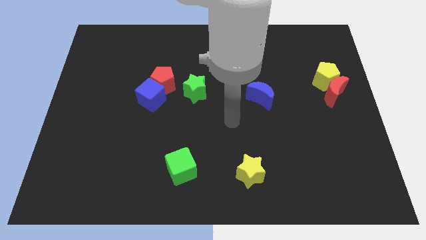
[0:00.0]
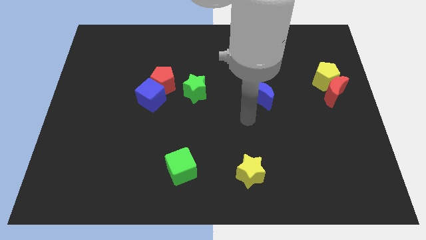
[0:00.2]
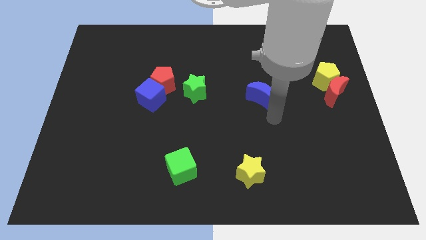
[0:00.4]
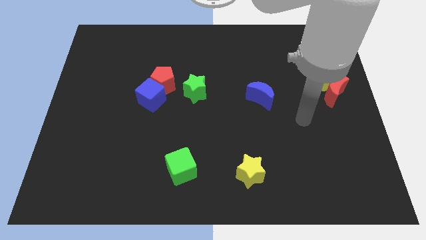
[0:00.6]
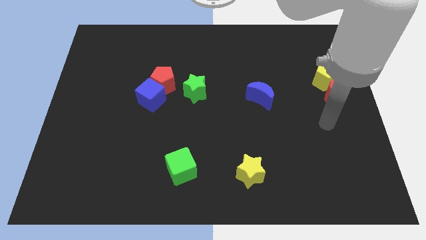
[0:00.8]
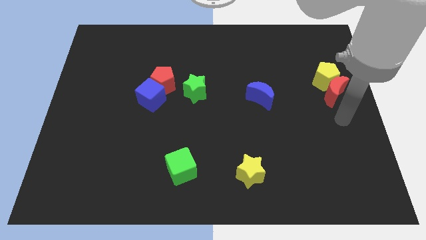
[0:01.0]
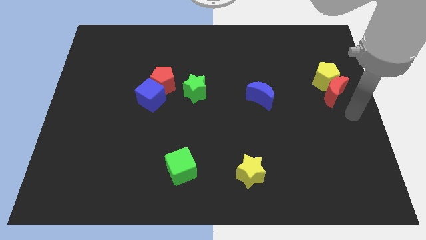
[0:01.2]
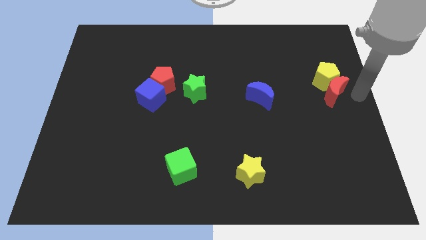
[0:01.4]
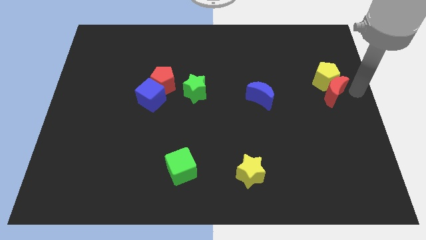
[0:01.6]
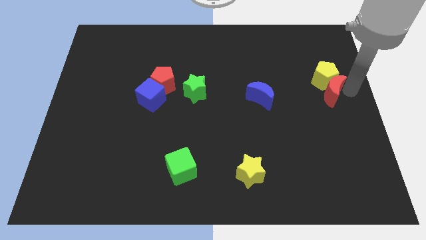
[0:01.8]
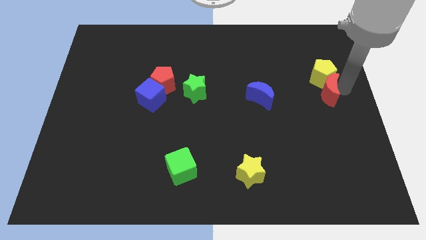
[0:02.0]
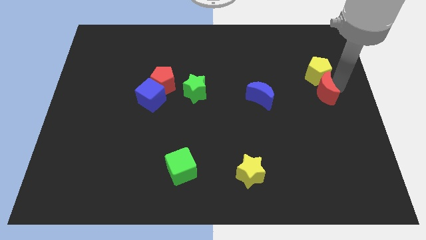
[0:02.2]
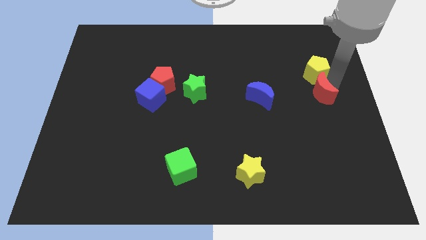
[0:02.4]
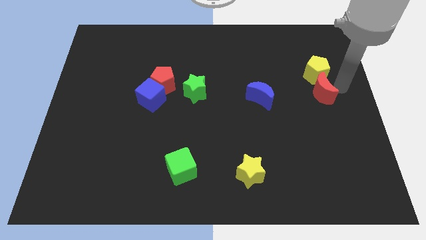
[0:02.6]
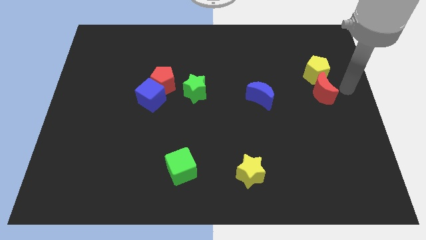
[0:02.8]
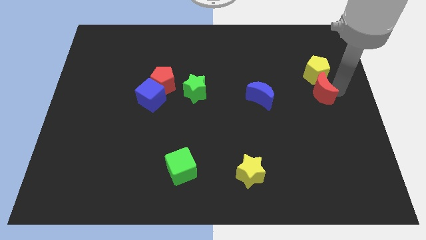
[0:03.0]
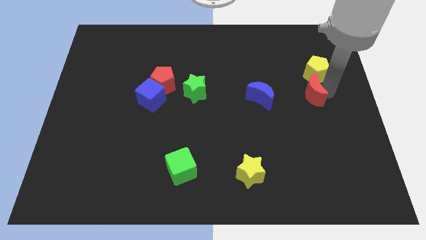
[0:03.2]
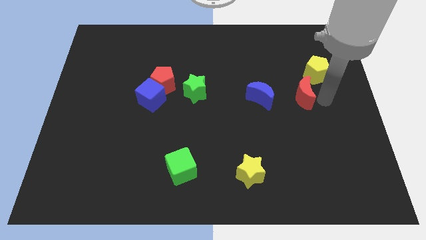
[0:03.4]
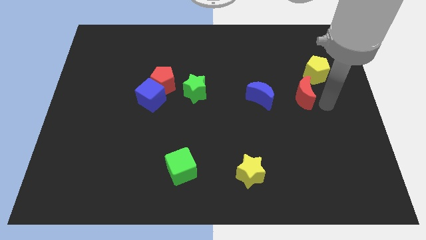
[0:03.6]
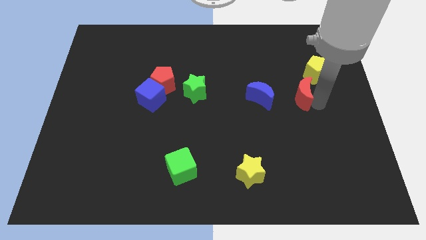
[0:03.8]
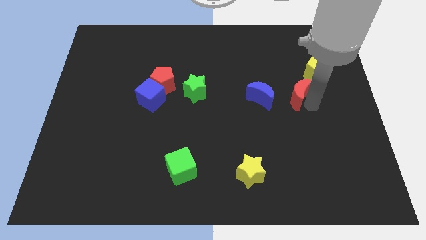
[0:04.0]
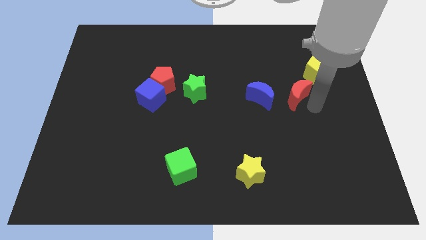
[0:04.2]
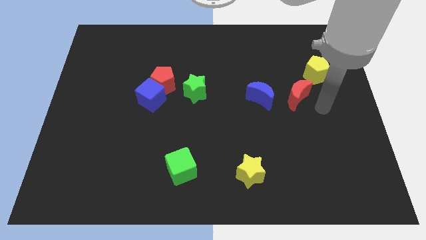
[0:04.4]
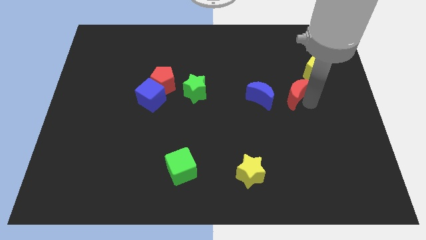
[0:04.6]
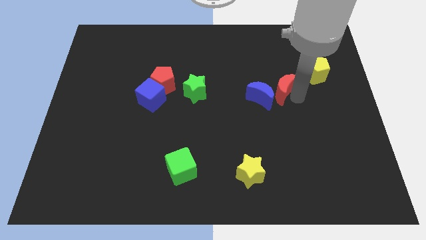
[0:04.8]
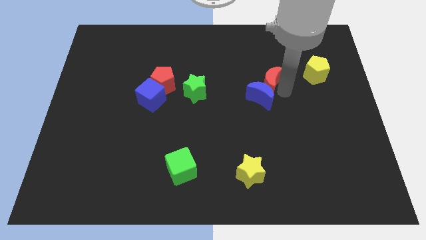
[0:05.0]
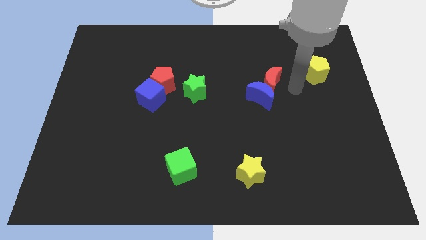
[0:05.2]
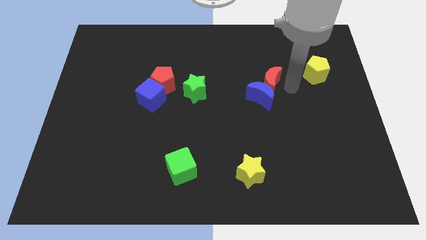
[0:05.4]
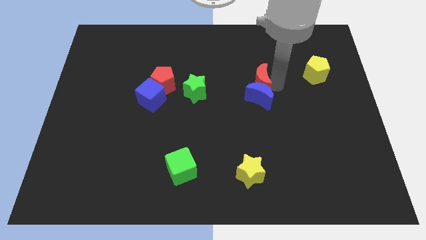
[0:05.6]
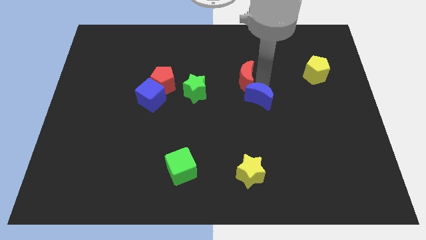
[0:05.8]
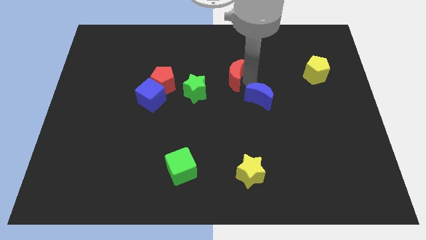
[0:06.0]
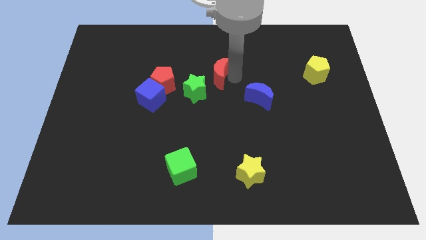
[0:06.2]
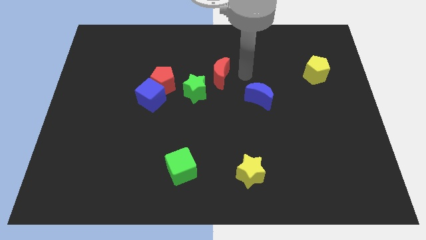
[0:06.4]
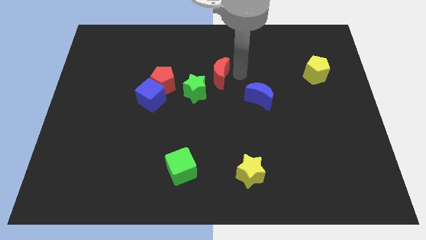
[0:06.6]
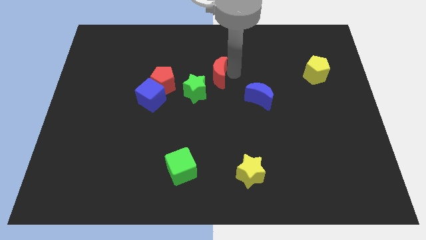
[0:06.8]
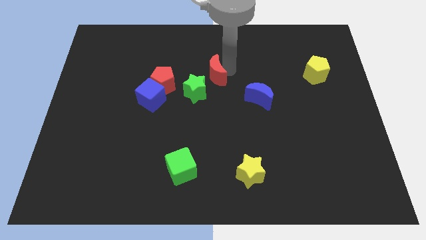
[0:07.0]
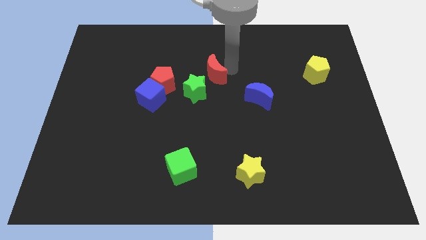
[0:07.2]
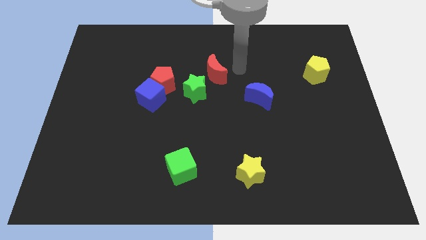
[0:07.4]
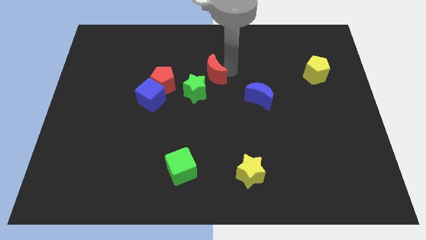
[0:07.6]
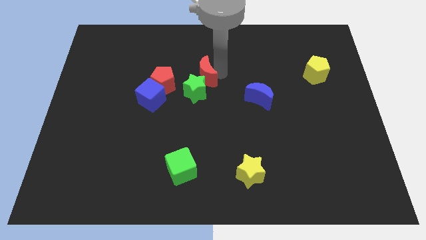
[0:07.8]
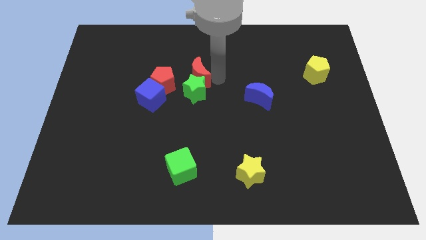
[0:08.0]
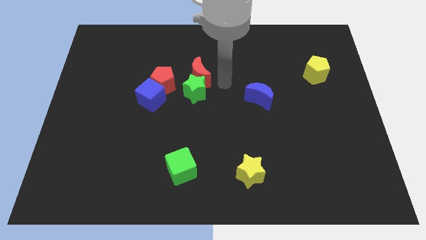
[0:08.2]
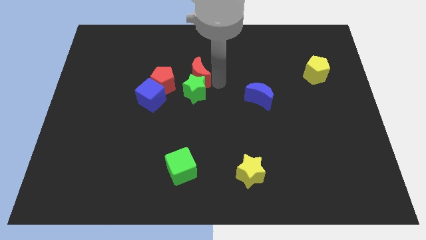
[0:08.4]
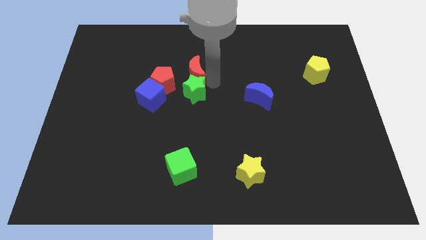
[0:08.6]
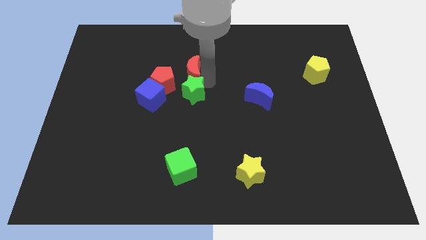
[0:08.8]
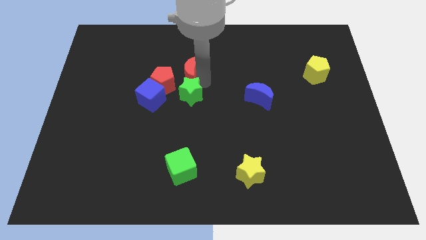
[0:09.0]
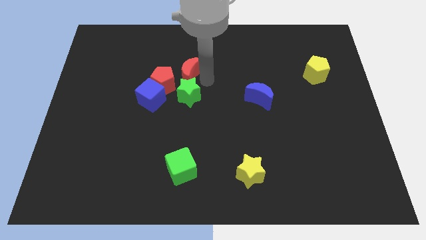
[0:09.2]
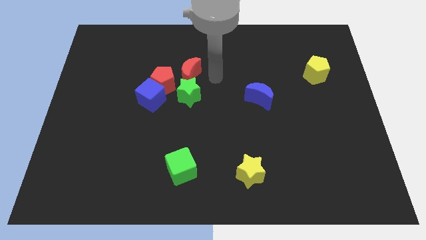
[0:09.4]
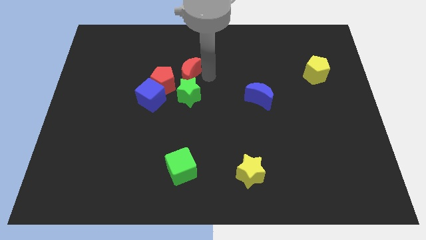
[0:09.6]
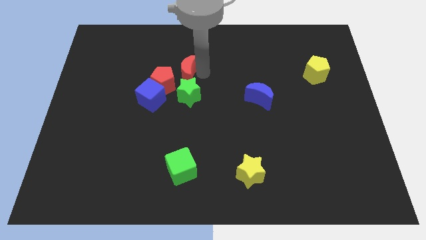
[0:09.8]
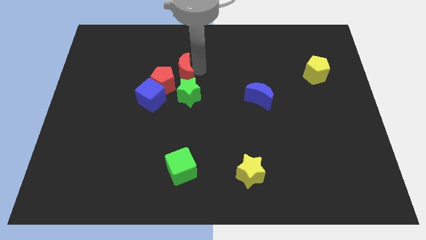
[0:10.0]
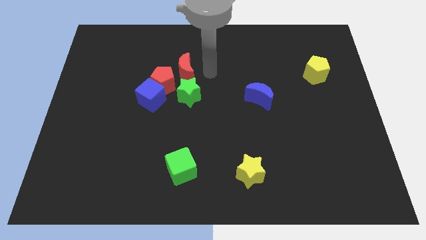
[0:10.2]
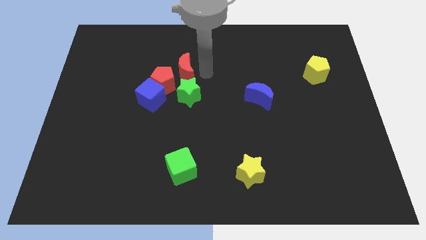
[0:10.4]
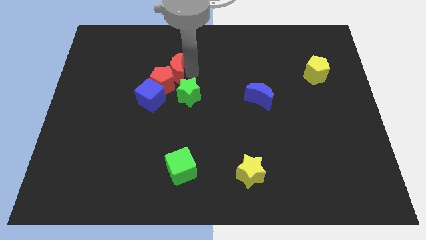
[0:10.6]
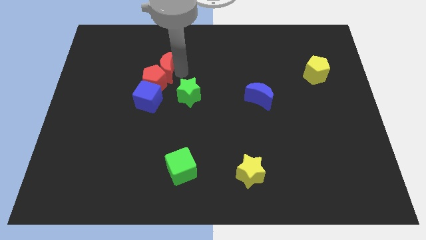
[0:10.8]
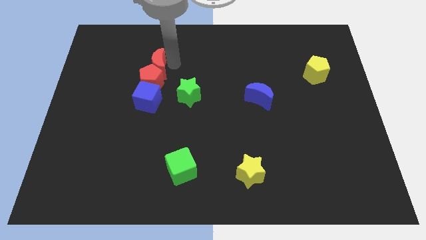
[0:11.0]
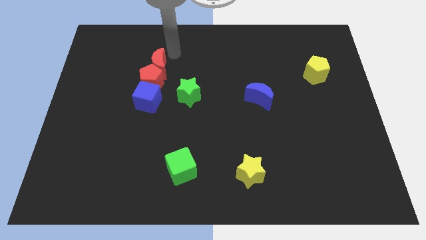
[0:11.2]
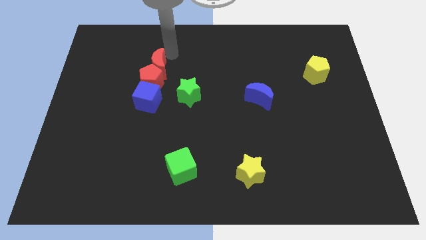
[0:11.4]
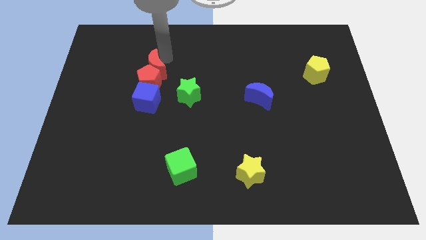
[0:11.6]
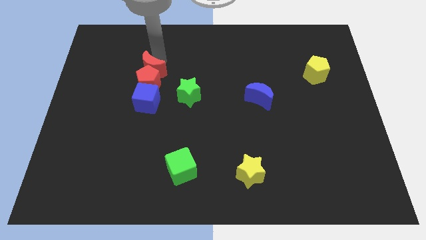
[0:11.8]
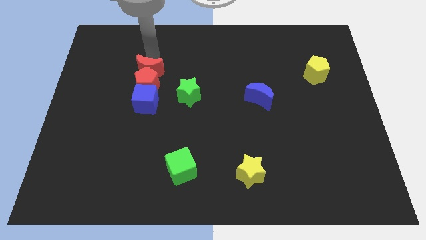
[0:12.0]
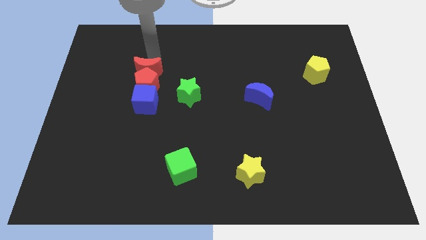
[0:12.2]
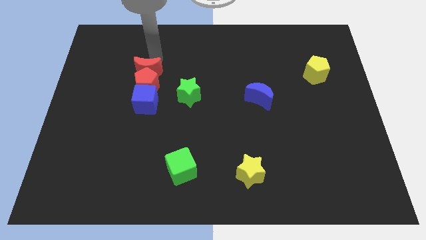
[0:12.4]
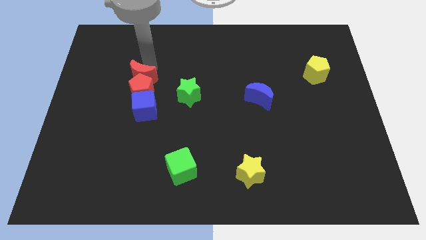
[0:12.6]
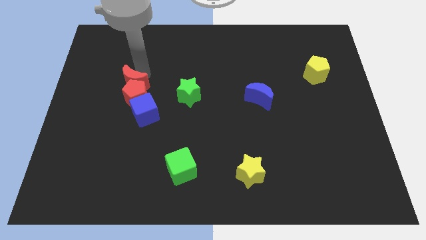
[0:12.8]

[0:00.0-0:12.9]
push the red moon just left of the green star
